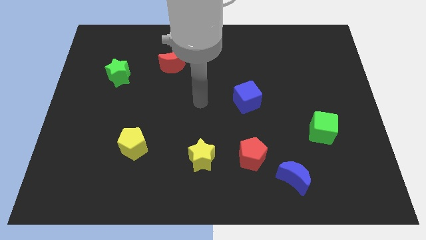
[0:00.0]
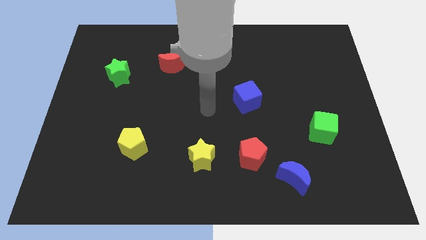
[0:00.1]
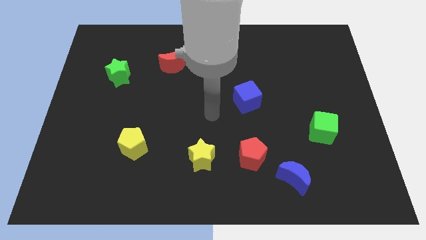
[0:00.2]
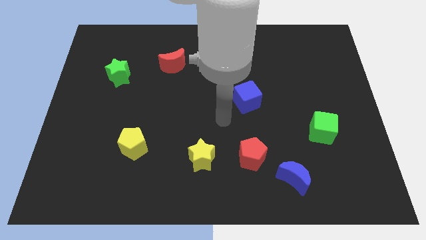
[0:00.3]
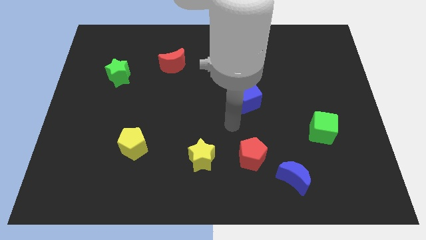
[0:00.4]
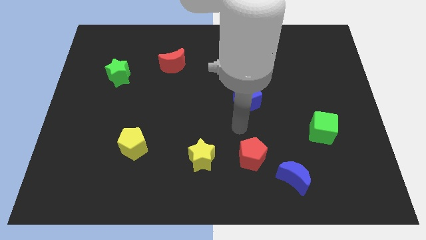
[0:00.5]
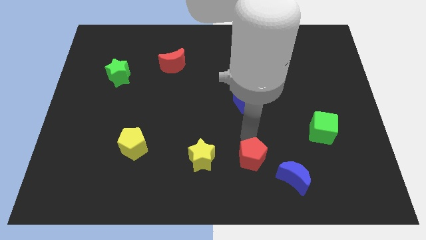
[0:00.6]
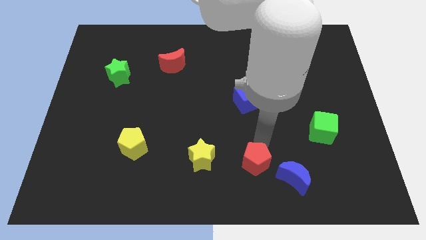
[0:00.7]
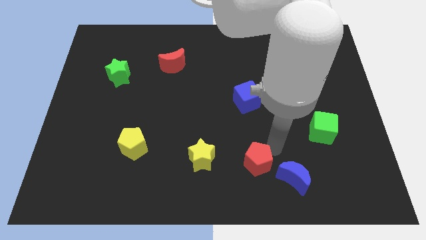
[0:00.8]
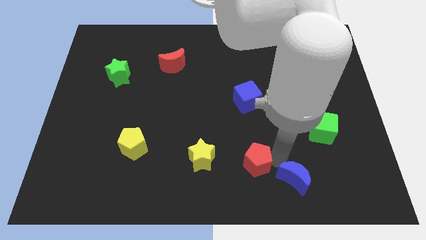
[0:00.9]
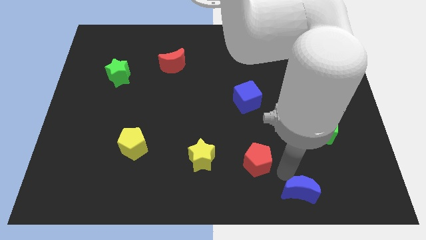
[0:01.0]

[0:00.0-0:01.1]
move the red pentagon away from the blue moon

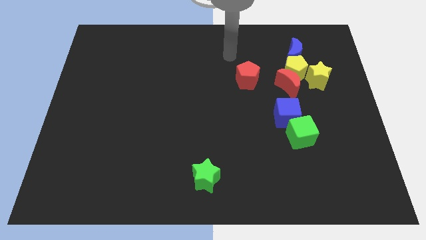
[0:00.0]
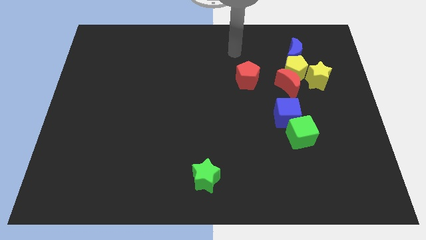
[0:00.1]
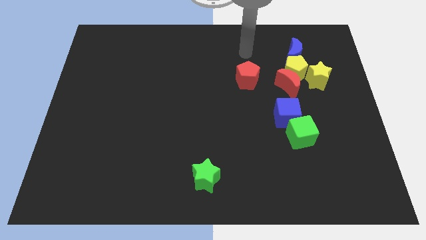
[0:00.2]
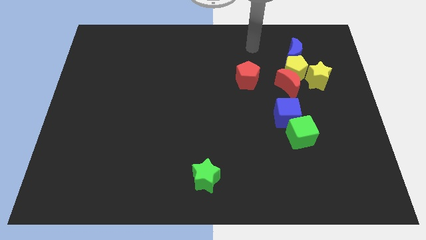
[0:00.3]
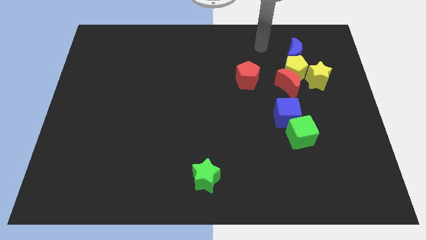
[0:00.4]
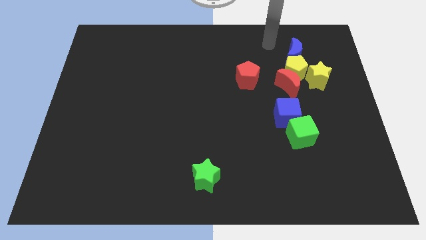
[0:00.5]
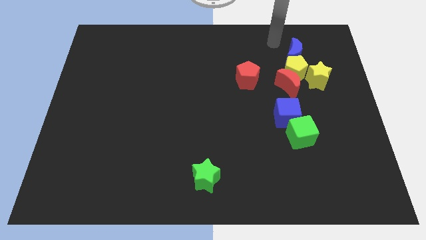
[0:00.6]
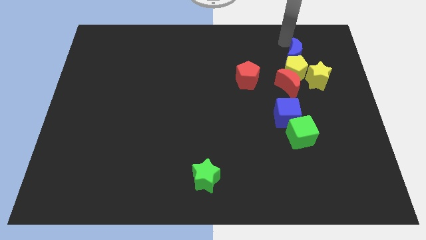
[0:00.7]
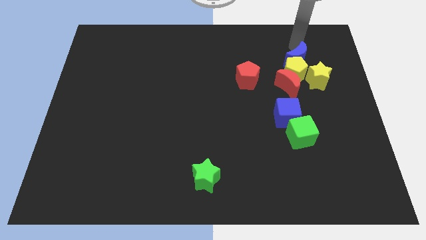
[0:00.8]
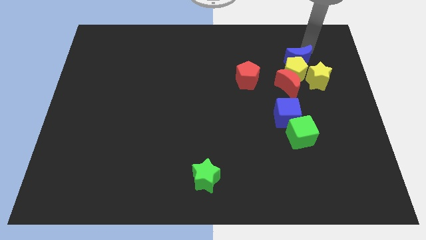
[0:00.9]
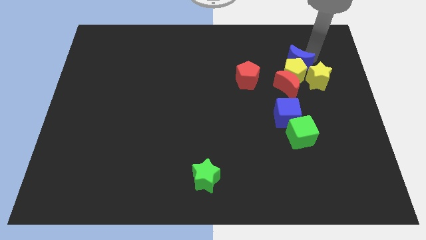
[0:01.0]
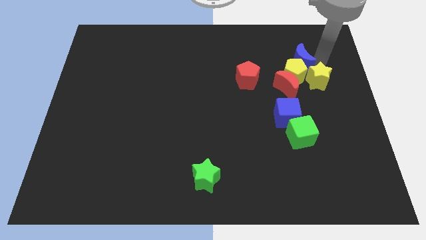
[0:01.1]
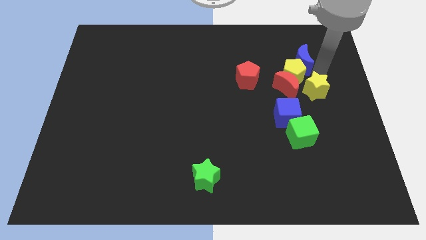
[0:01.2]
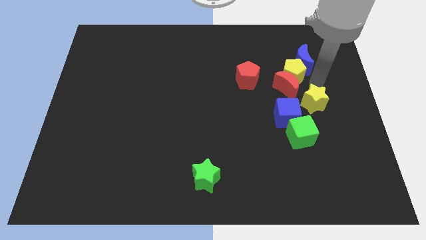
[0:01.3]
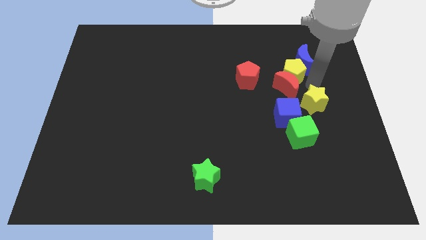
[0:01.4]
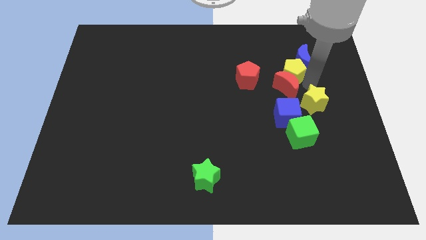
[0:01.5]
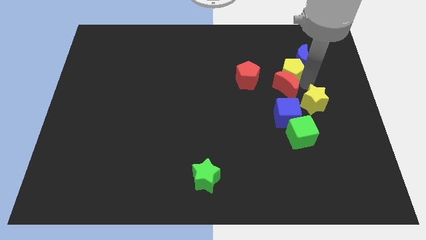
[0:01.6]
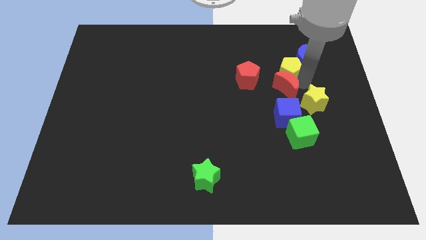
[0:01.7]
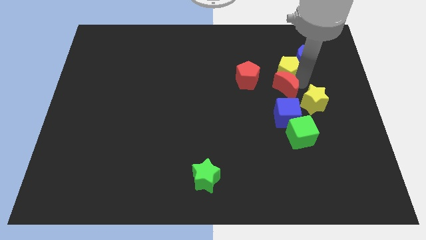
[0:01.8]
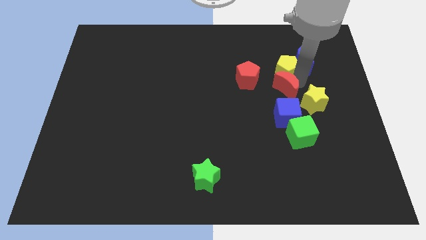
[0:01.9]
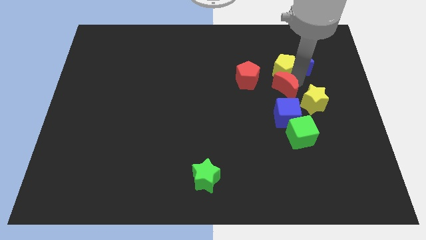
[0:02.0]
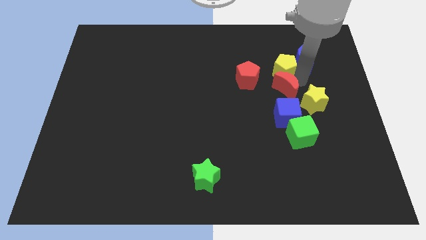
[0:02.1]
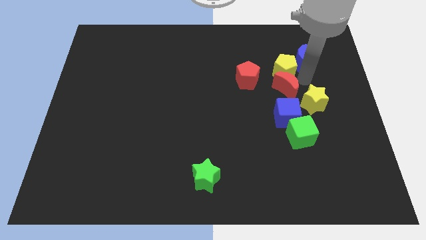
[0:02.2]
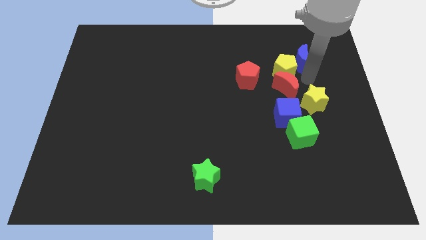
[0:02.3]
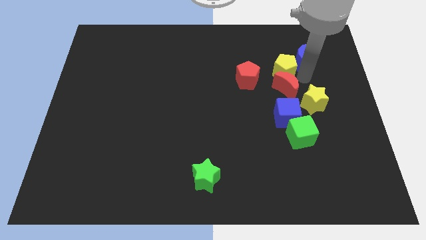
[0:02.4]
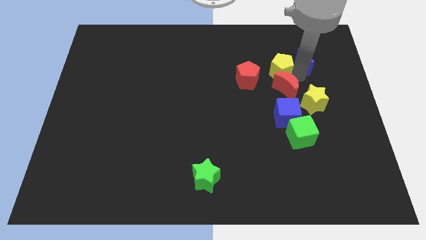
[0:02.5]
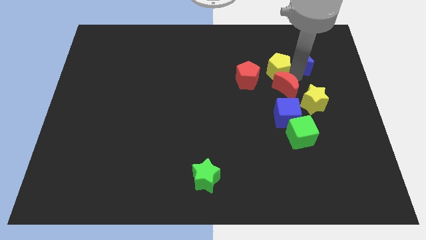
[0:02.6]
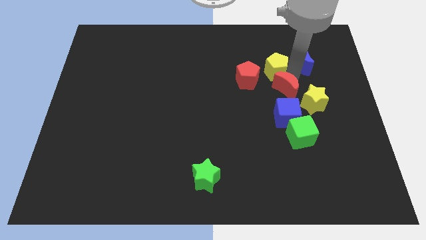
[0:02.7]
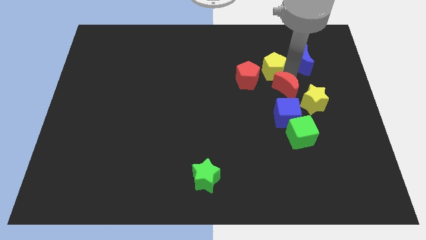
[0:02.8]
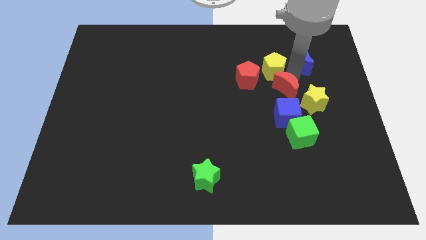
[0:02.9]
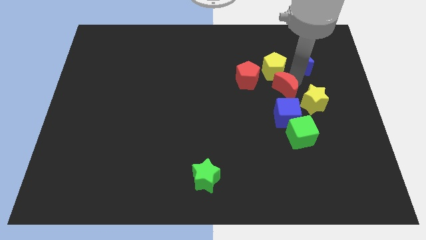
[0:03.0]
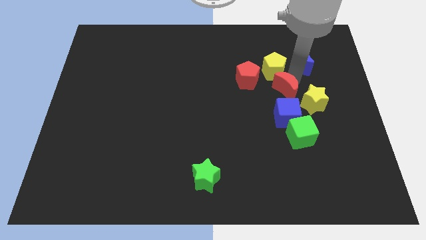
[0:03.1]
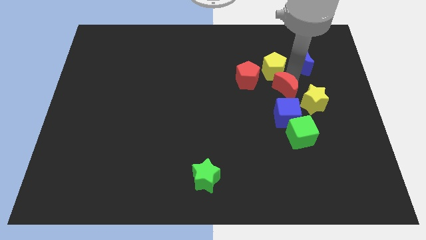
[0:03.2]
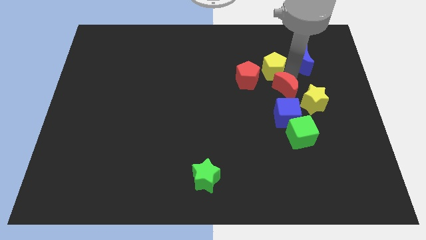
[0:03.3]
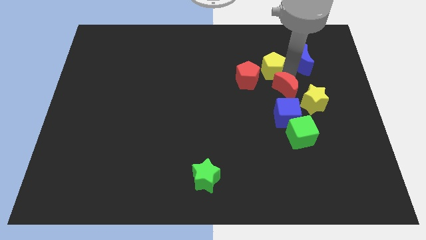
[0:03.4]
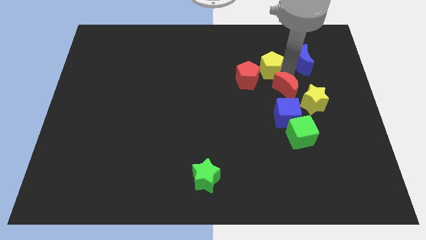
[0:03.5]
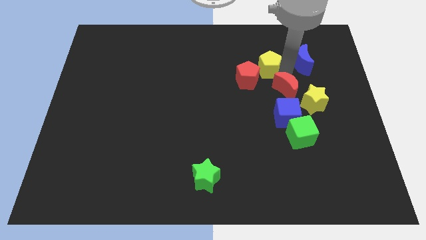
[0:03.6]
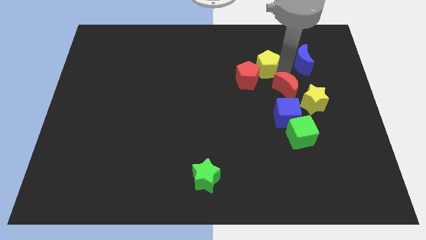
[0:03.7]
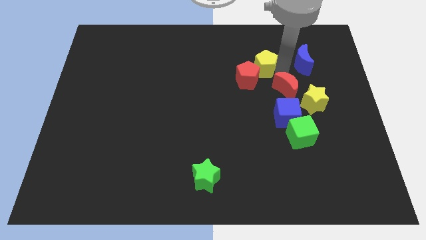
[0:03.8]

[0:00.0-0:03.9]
move the yellow pentagon away from the red moon, blue moon, and yellow star

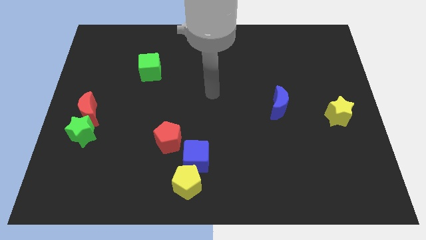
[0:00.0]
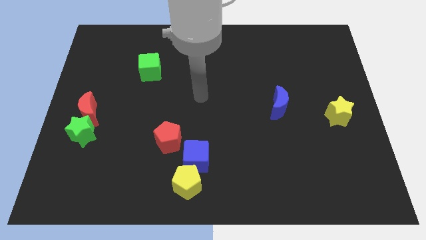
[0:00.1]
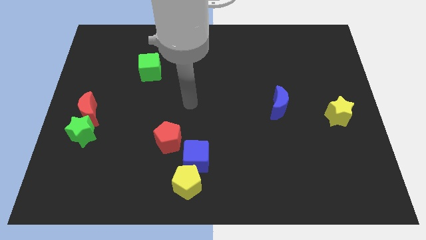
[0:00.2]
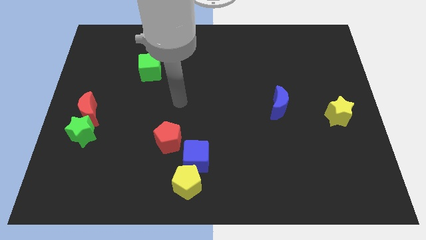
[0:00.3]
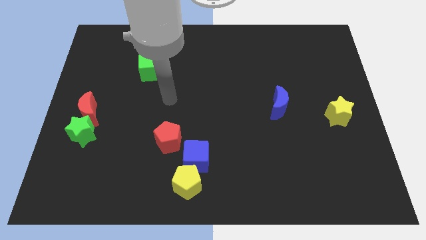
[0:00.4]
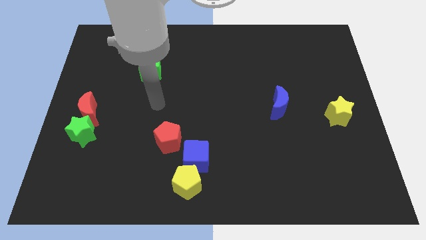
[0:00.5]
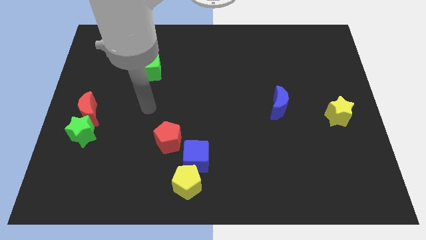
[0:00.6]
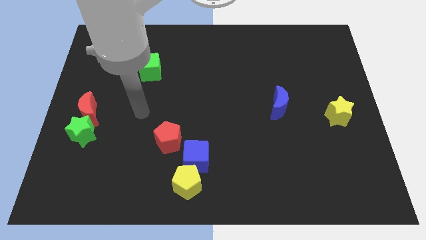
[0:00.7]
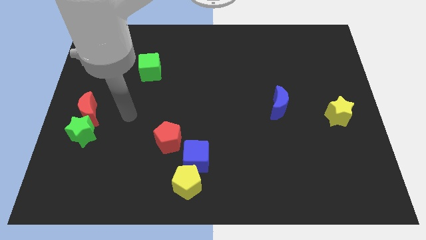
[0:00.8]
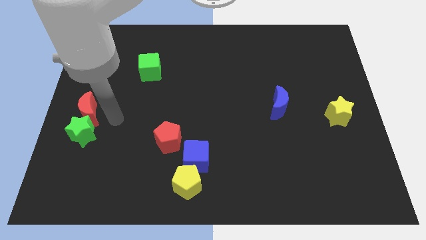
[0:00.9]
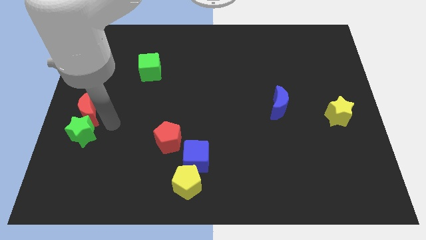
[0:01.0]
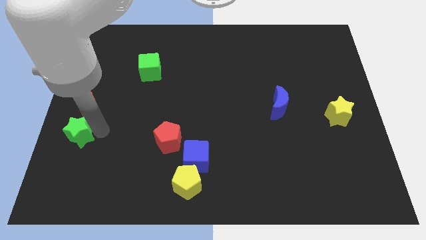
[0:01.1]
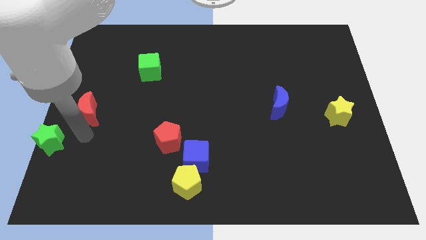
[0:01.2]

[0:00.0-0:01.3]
pull the red moon apart from the green star

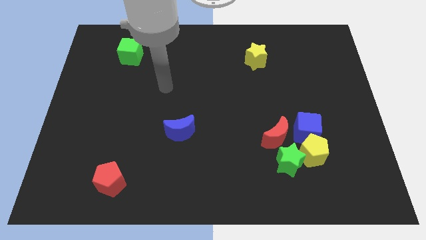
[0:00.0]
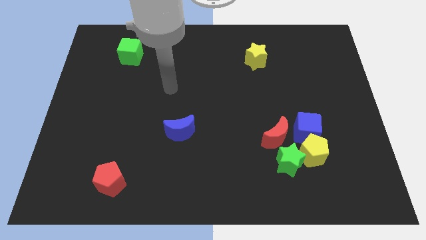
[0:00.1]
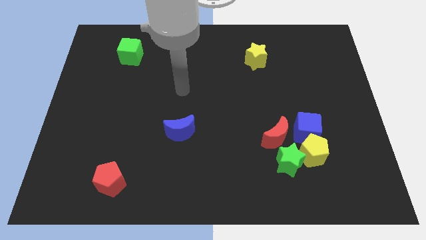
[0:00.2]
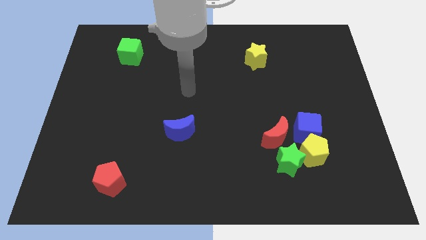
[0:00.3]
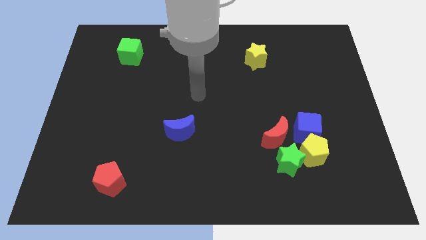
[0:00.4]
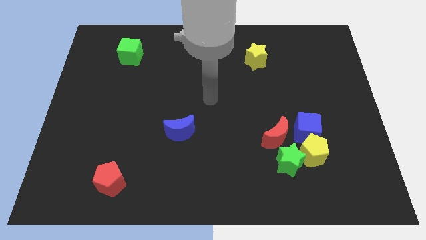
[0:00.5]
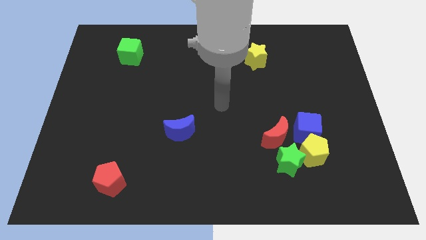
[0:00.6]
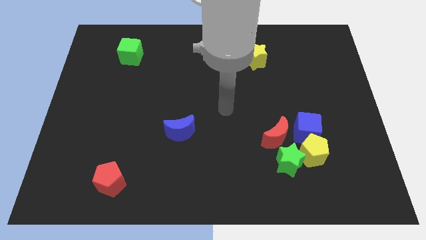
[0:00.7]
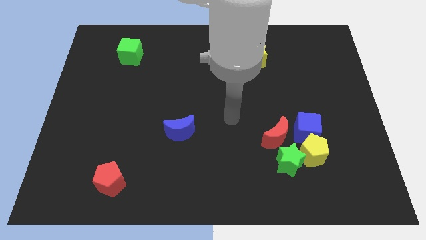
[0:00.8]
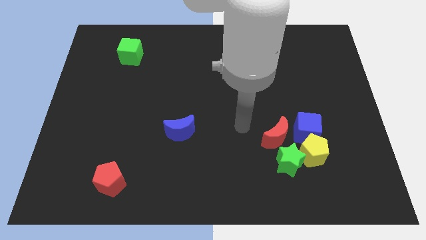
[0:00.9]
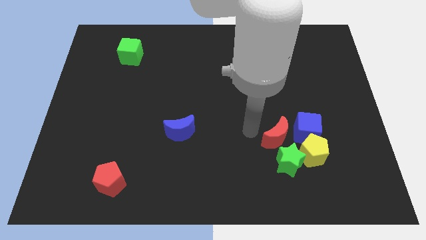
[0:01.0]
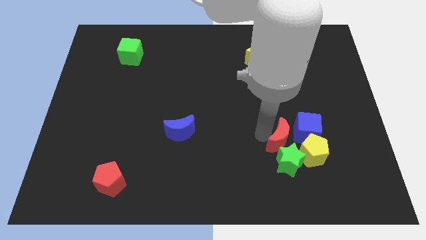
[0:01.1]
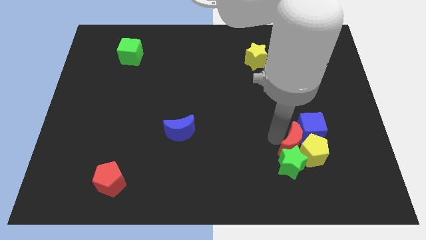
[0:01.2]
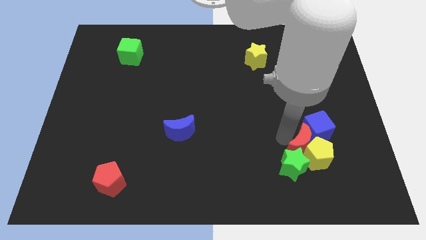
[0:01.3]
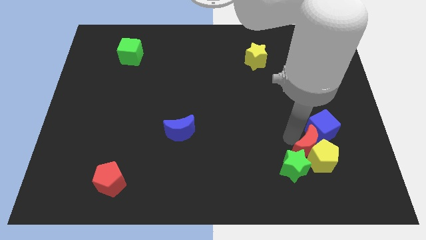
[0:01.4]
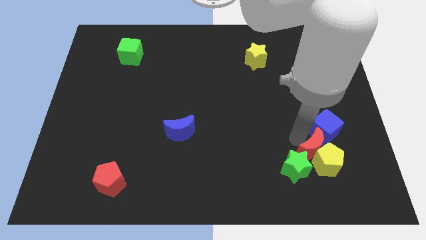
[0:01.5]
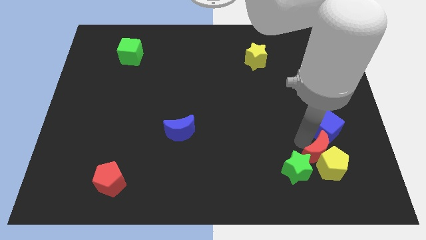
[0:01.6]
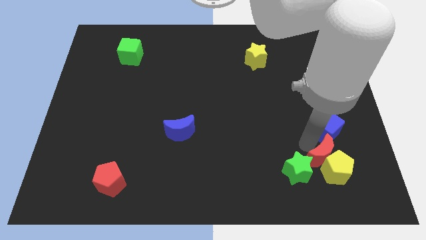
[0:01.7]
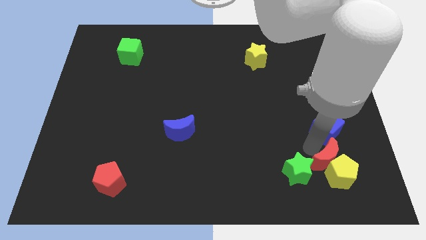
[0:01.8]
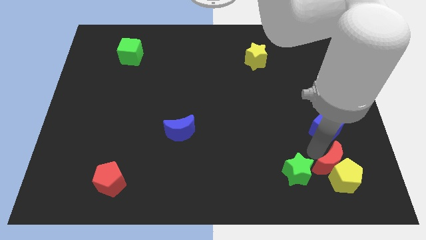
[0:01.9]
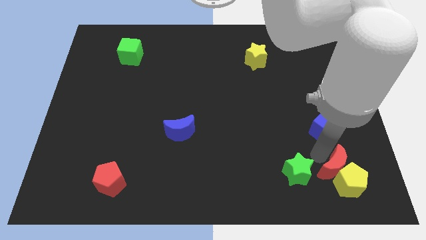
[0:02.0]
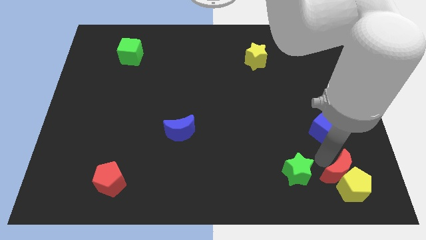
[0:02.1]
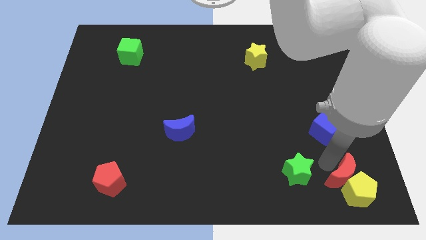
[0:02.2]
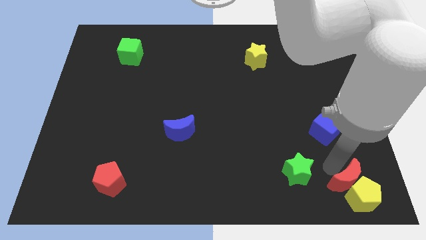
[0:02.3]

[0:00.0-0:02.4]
pull the yellow pentagon apart from the group of blocks

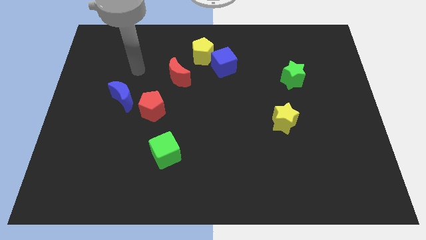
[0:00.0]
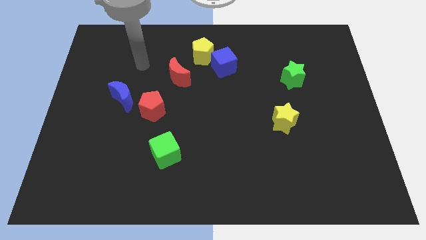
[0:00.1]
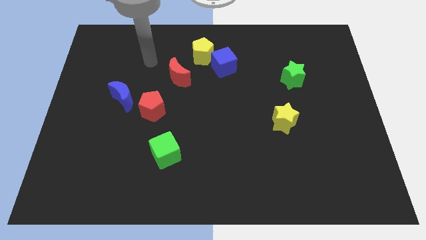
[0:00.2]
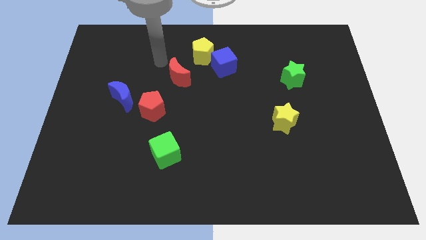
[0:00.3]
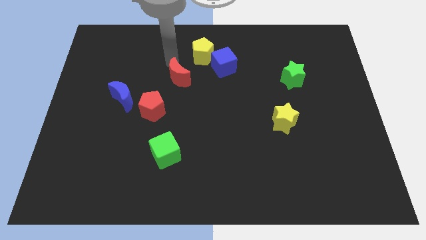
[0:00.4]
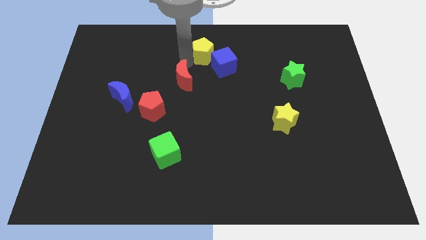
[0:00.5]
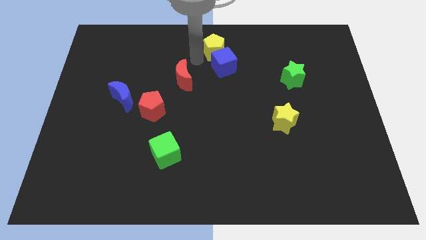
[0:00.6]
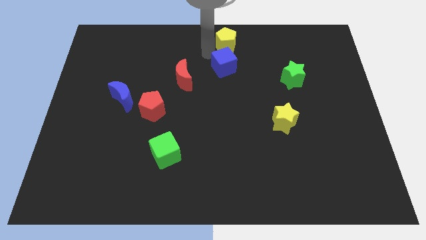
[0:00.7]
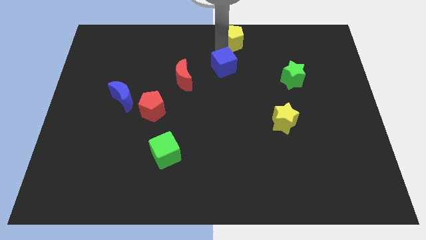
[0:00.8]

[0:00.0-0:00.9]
move the blue cube away from the yellow pentagon
